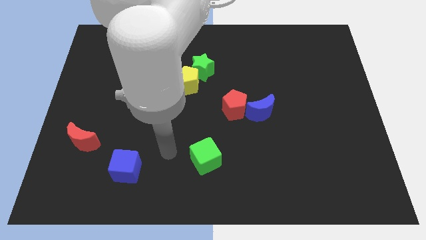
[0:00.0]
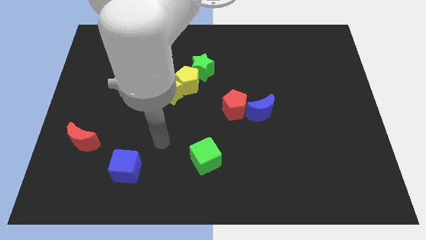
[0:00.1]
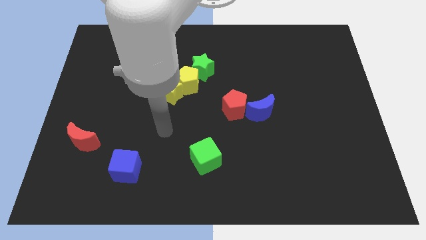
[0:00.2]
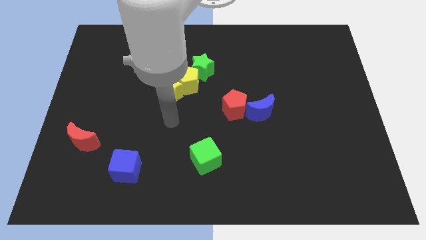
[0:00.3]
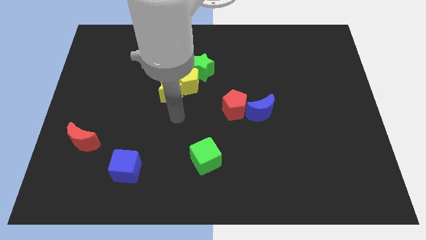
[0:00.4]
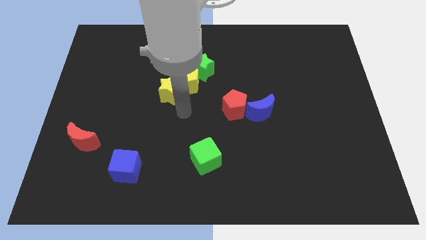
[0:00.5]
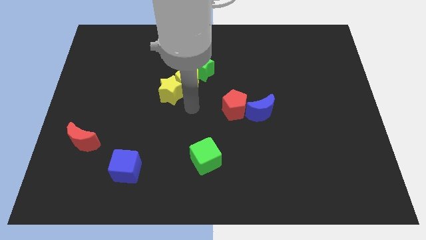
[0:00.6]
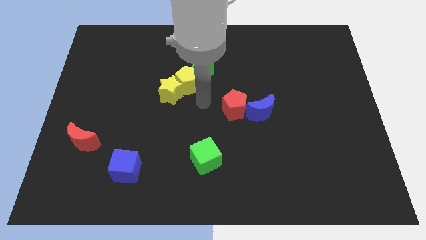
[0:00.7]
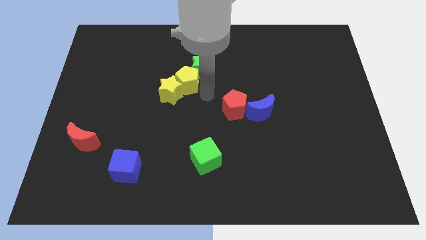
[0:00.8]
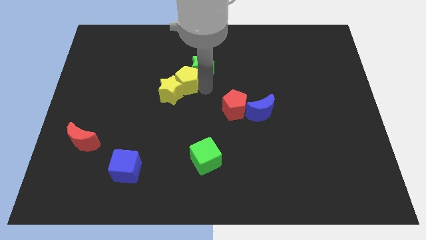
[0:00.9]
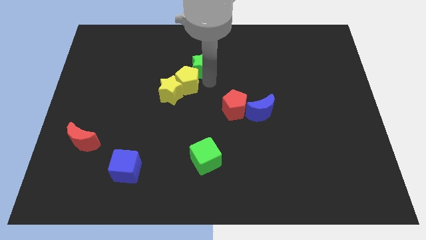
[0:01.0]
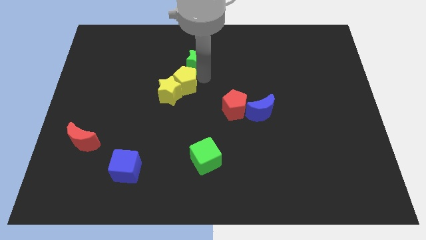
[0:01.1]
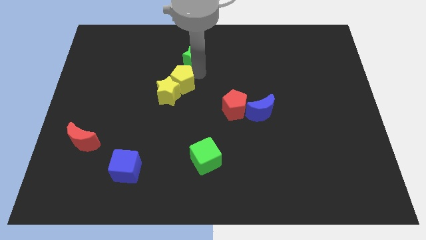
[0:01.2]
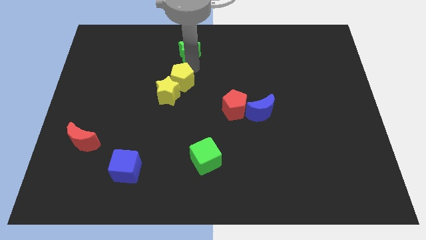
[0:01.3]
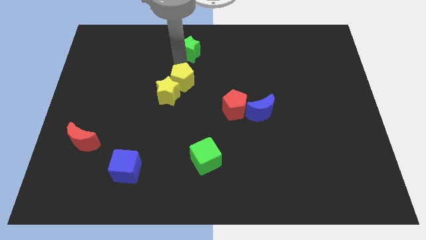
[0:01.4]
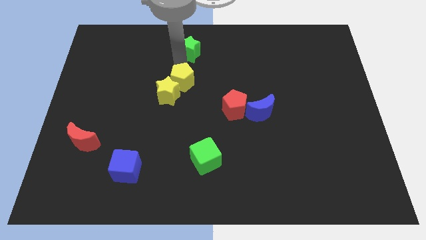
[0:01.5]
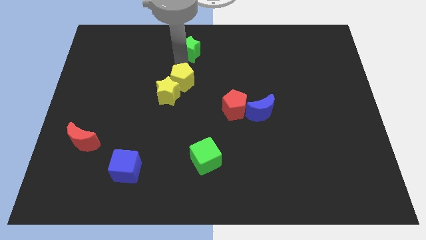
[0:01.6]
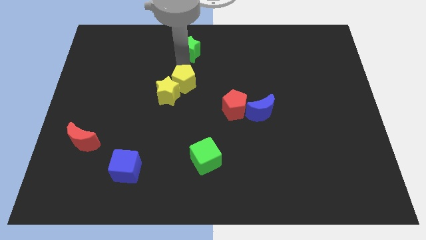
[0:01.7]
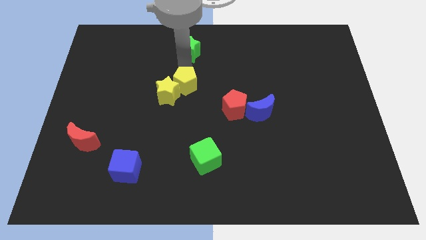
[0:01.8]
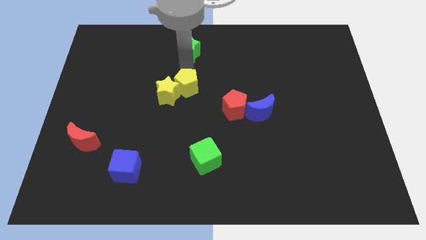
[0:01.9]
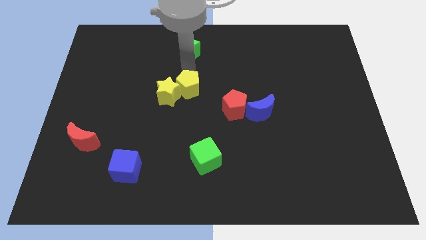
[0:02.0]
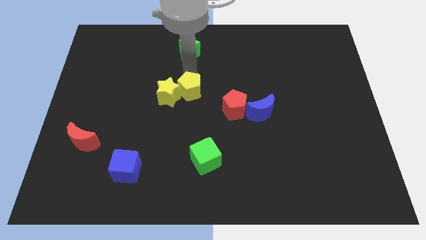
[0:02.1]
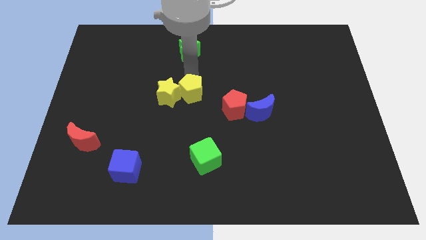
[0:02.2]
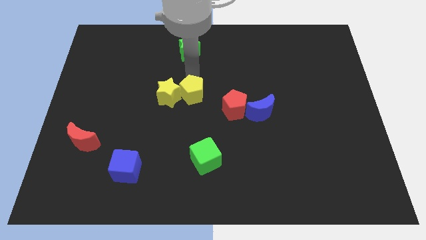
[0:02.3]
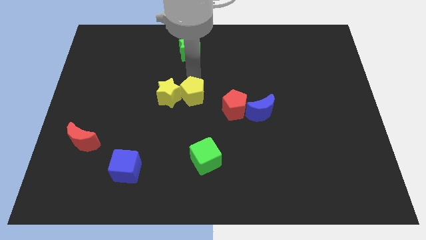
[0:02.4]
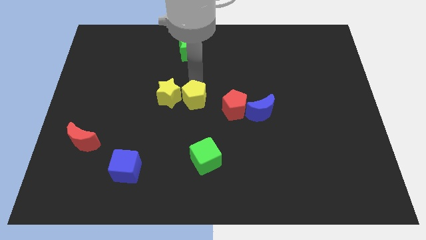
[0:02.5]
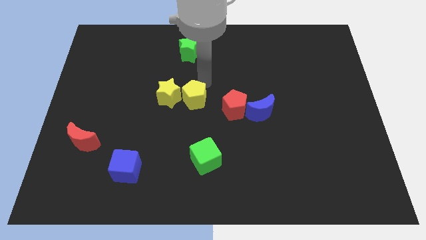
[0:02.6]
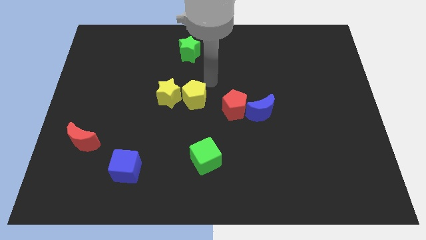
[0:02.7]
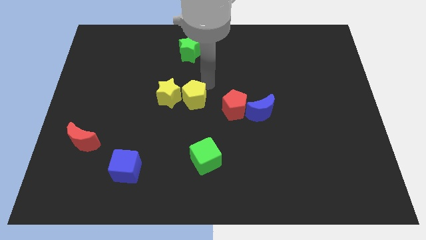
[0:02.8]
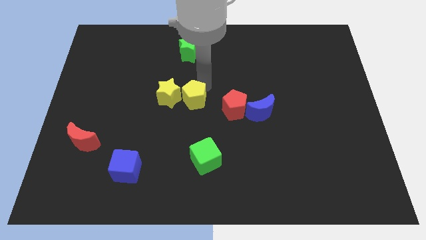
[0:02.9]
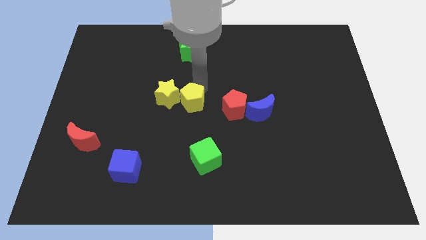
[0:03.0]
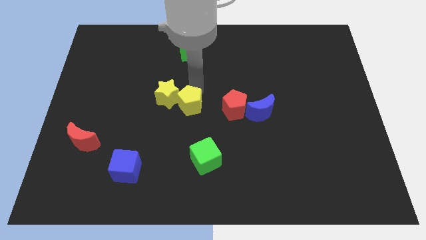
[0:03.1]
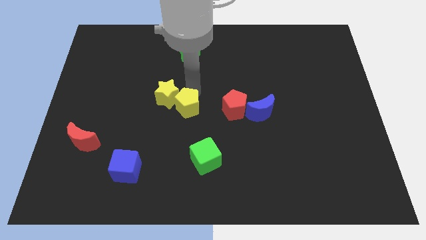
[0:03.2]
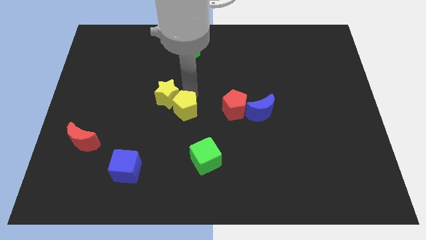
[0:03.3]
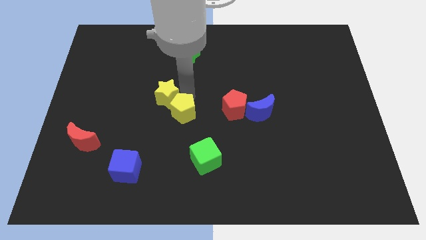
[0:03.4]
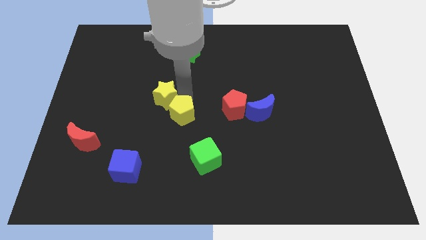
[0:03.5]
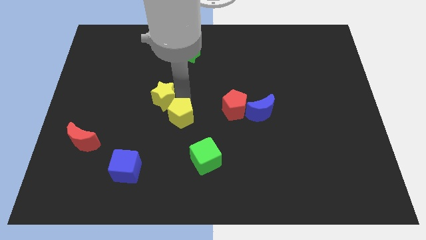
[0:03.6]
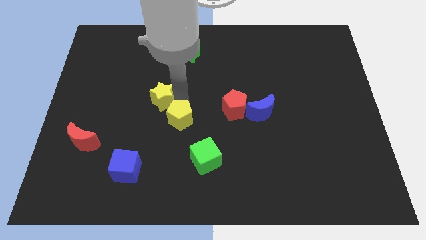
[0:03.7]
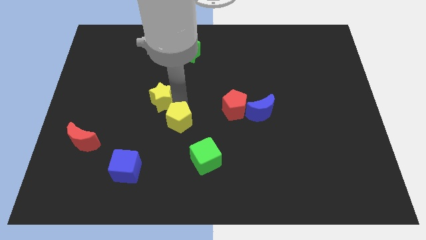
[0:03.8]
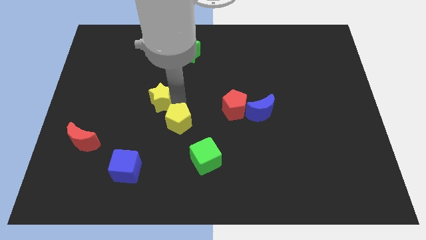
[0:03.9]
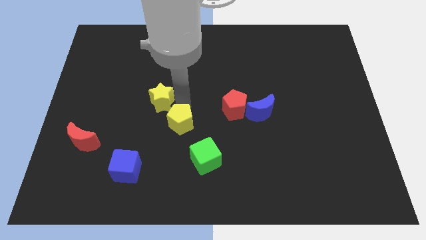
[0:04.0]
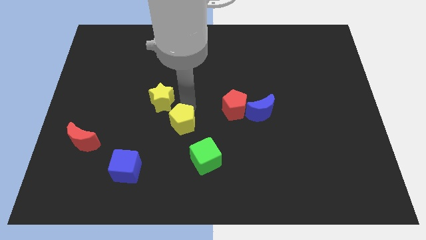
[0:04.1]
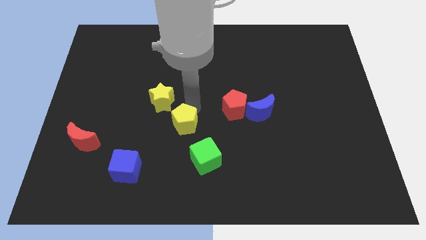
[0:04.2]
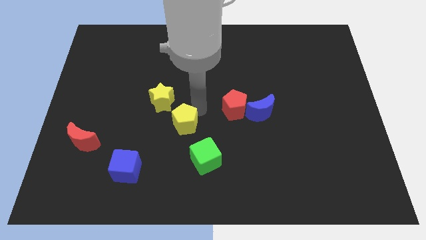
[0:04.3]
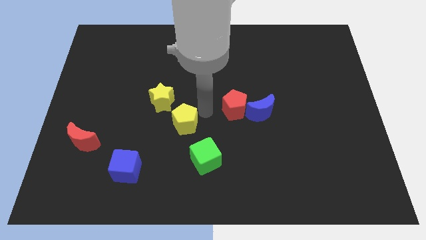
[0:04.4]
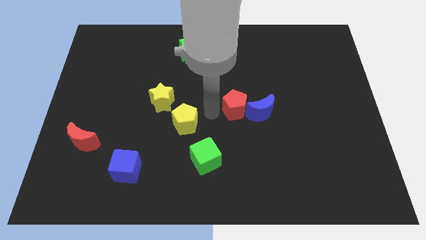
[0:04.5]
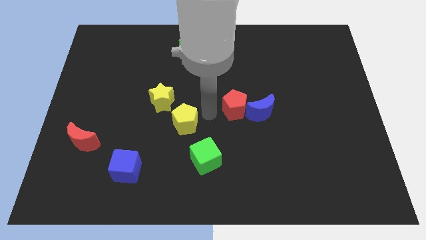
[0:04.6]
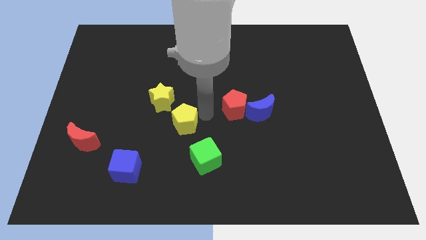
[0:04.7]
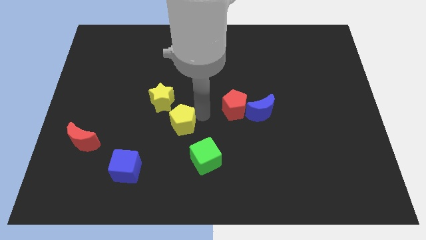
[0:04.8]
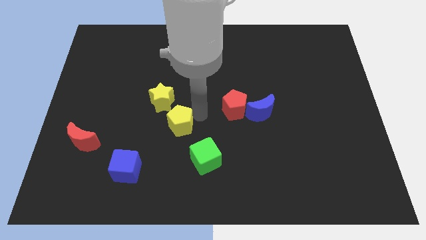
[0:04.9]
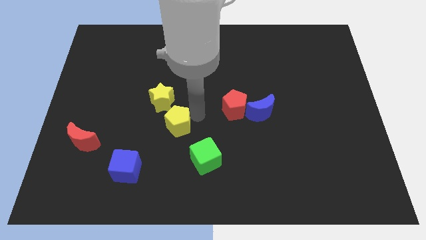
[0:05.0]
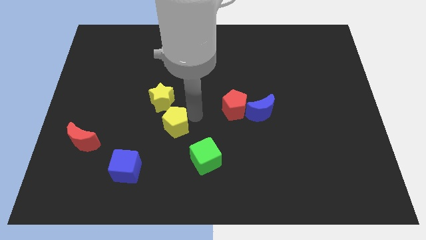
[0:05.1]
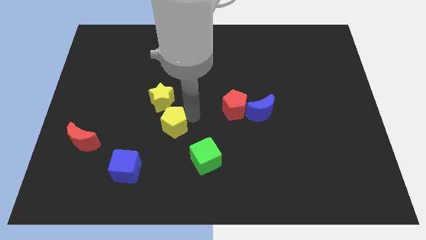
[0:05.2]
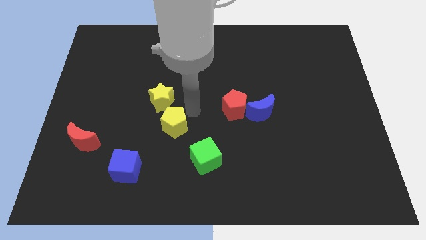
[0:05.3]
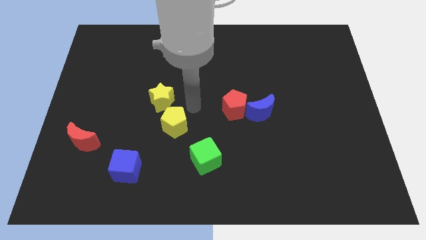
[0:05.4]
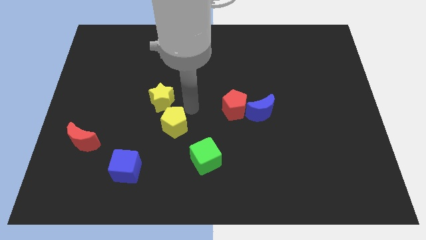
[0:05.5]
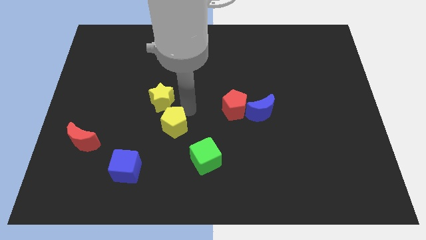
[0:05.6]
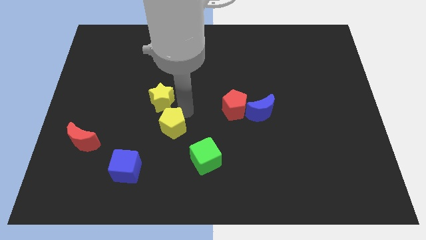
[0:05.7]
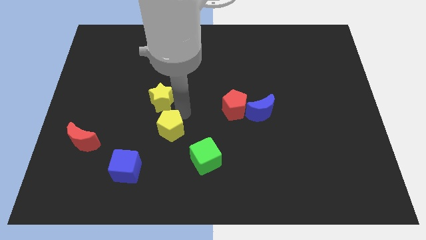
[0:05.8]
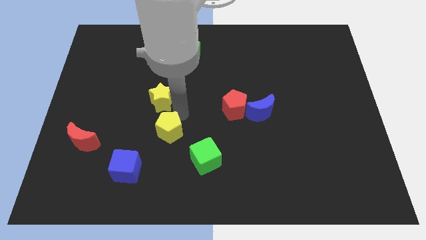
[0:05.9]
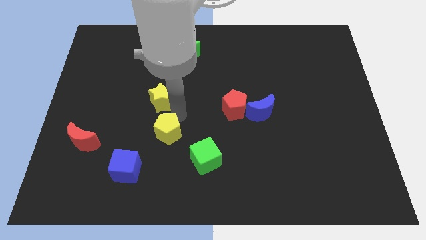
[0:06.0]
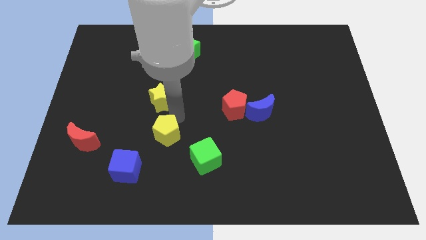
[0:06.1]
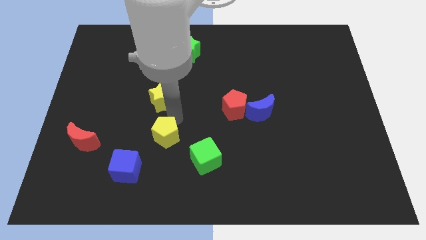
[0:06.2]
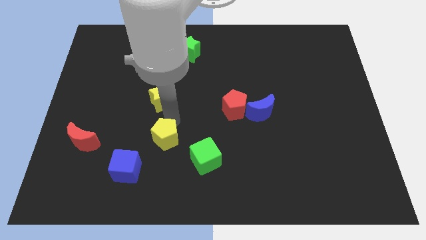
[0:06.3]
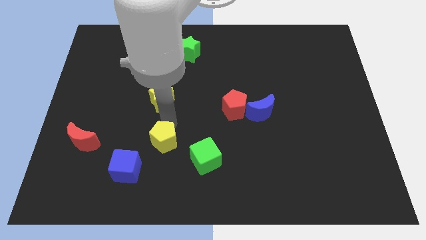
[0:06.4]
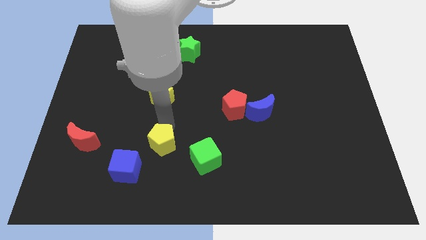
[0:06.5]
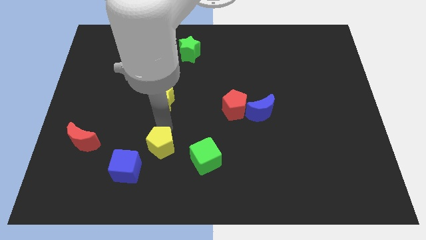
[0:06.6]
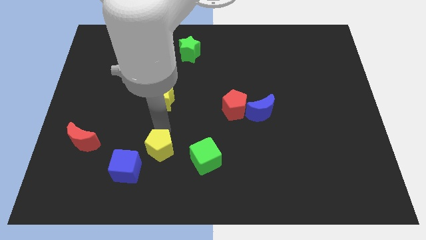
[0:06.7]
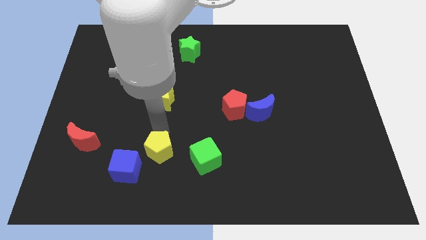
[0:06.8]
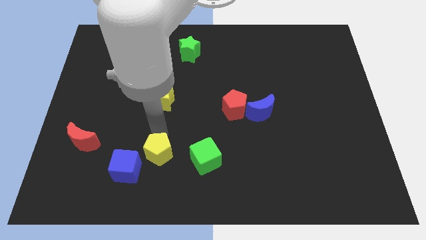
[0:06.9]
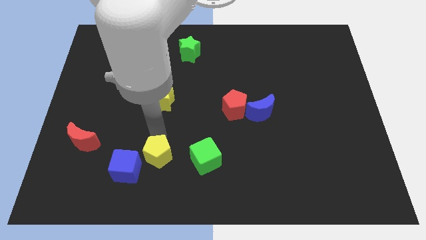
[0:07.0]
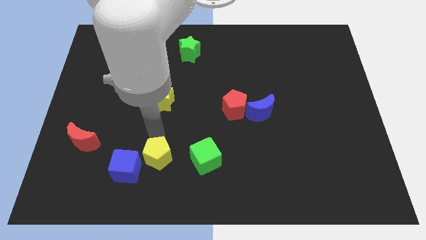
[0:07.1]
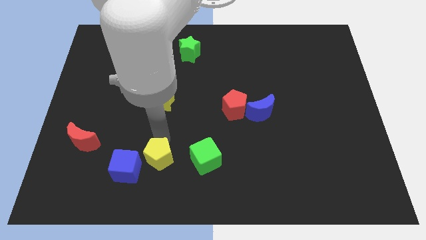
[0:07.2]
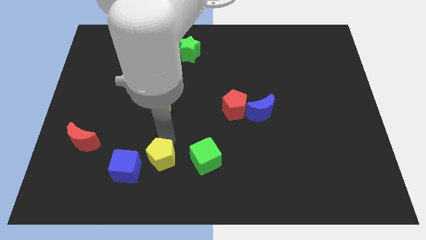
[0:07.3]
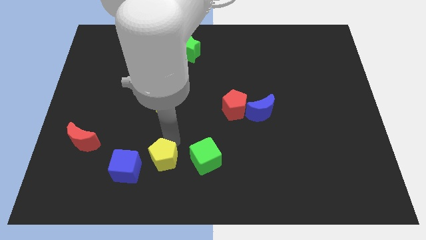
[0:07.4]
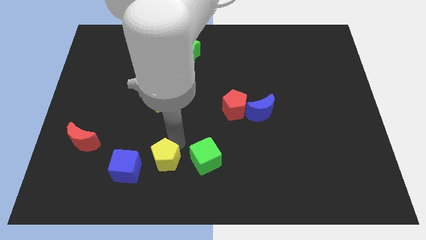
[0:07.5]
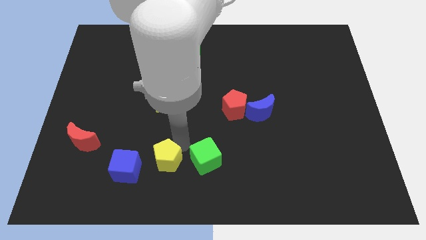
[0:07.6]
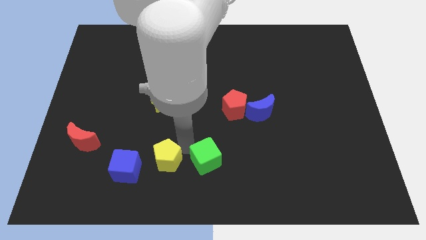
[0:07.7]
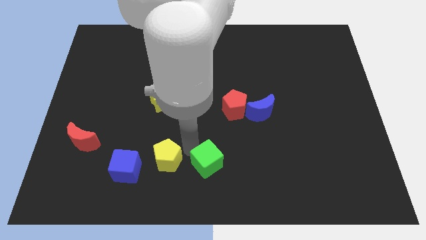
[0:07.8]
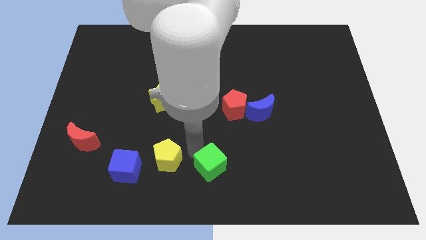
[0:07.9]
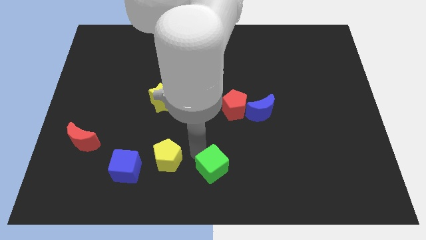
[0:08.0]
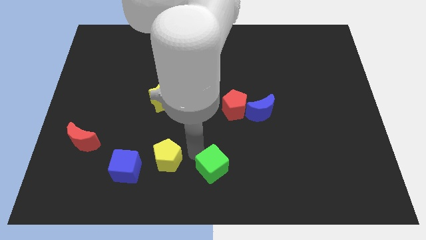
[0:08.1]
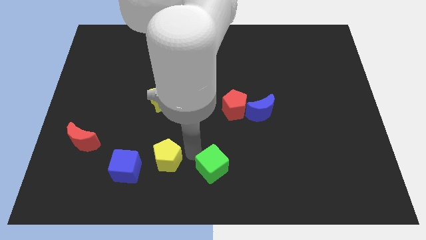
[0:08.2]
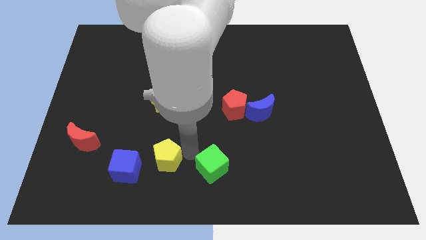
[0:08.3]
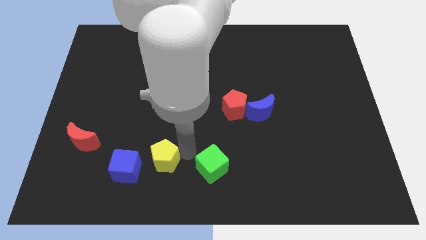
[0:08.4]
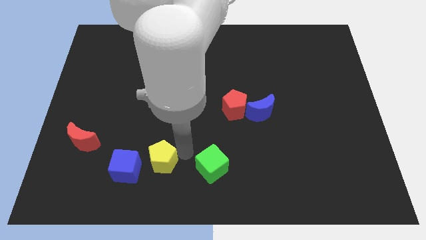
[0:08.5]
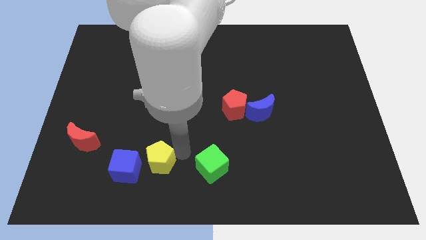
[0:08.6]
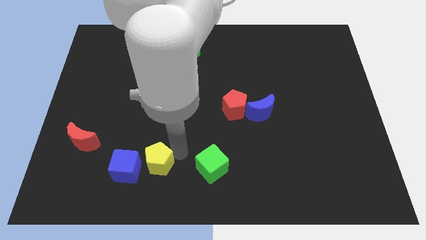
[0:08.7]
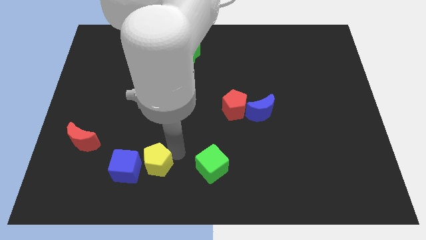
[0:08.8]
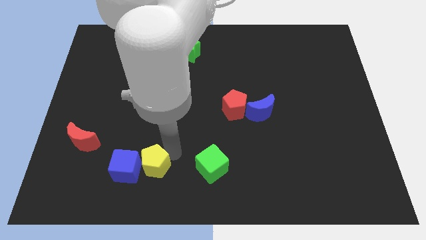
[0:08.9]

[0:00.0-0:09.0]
push the yellow pentagon close to the blue cube
